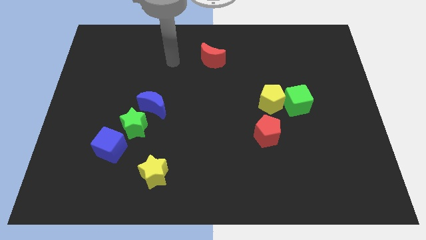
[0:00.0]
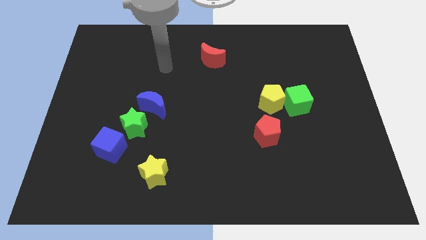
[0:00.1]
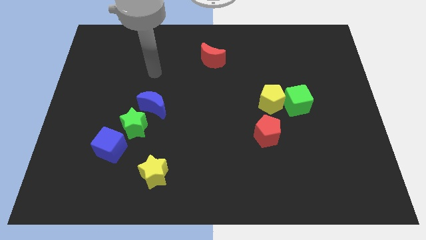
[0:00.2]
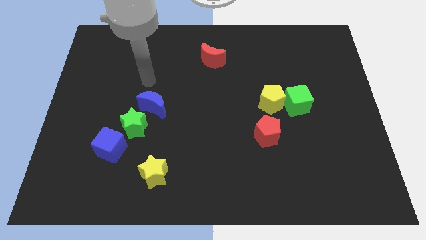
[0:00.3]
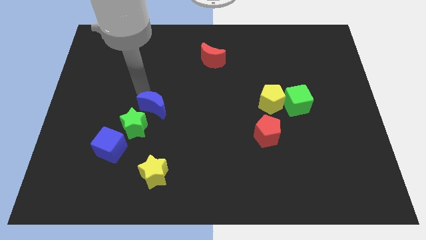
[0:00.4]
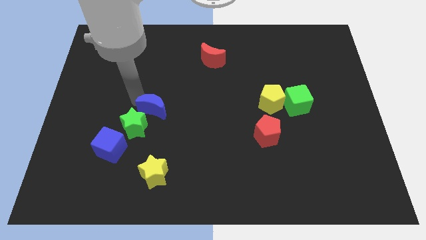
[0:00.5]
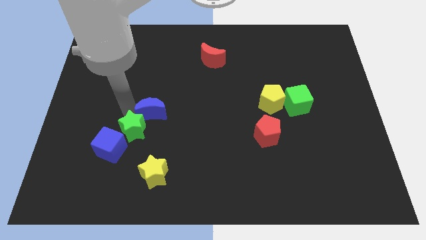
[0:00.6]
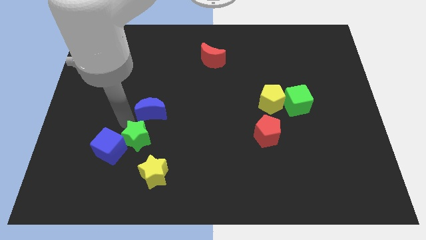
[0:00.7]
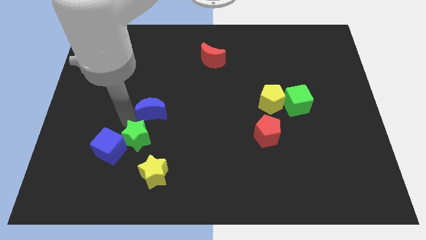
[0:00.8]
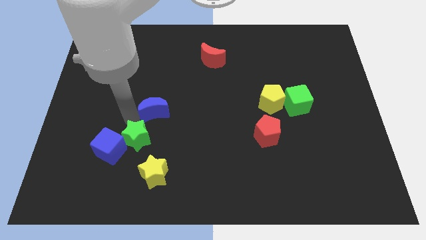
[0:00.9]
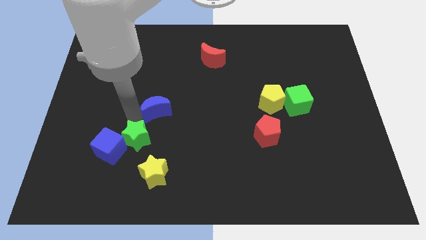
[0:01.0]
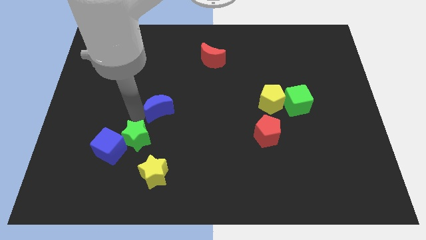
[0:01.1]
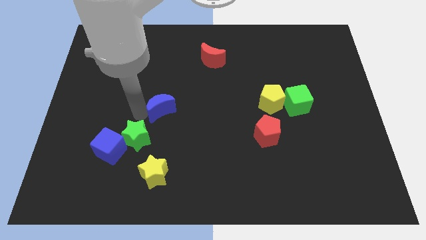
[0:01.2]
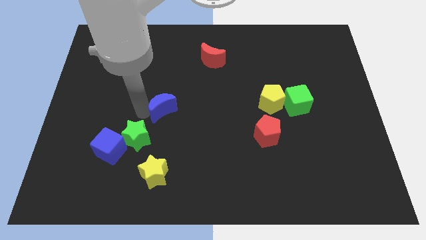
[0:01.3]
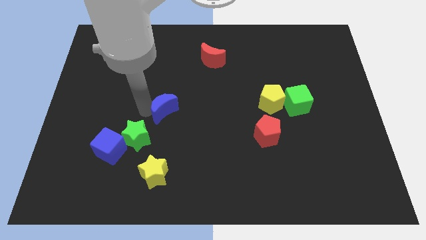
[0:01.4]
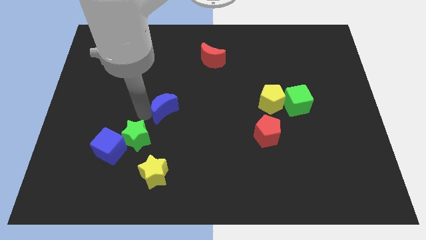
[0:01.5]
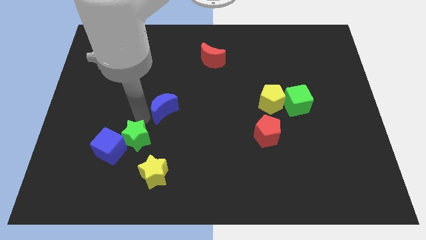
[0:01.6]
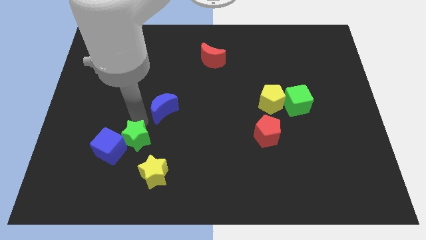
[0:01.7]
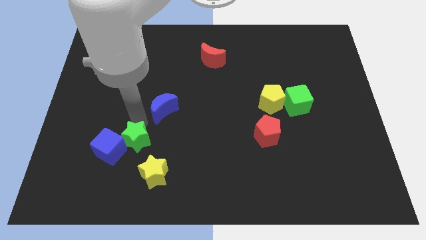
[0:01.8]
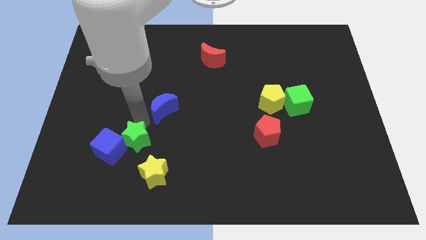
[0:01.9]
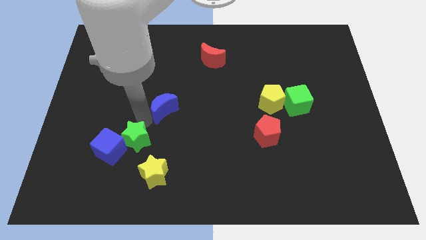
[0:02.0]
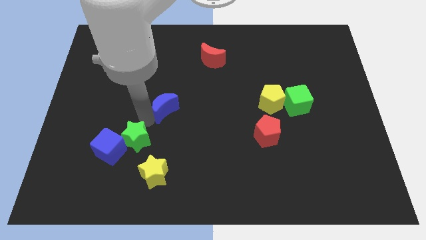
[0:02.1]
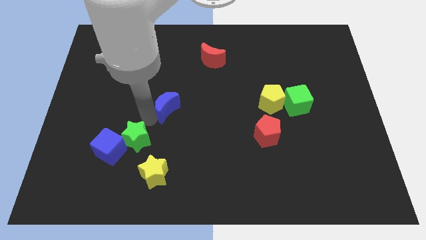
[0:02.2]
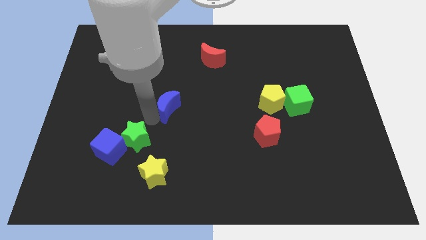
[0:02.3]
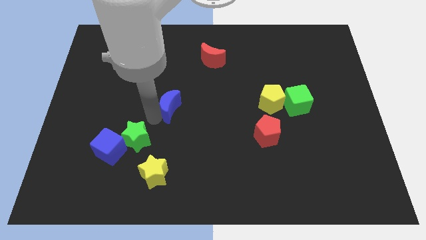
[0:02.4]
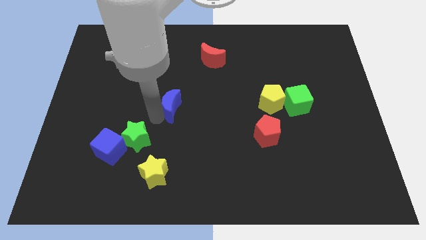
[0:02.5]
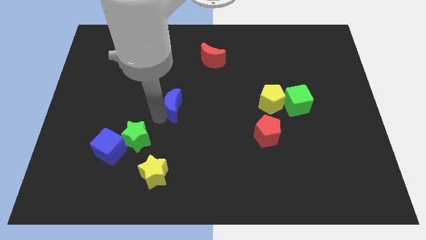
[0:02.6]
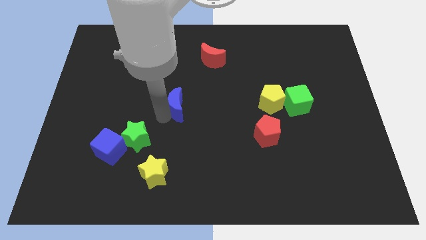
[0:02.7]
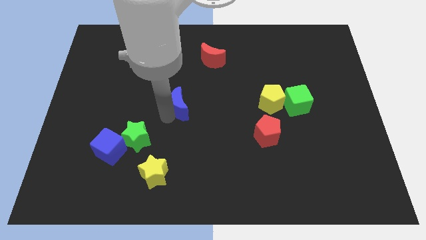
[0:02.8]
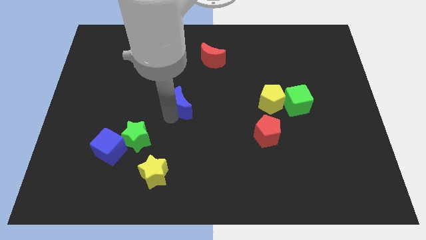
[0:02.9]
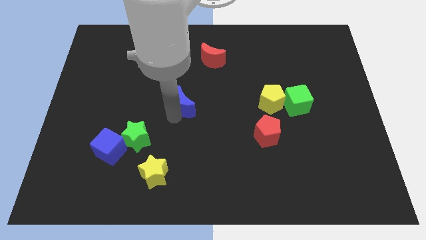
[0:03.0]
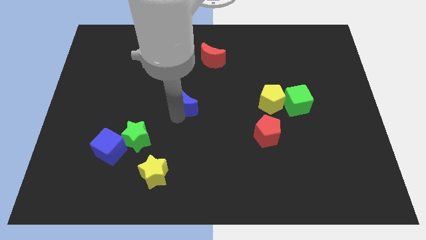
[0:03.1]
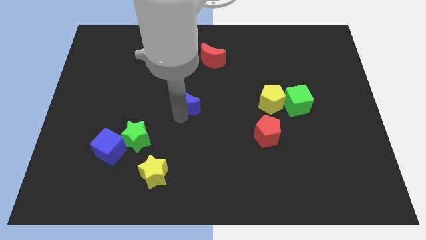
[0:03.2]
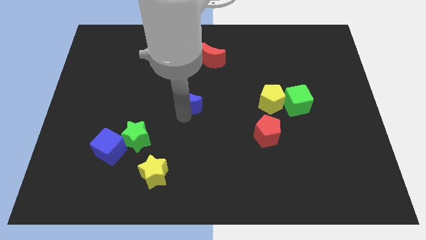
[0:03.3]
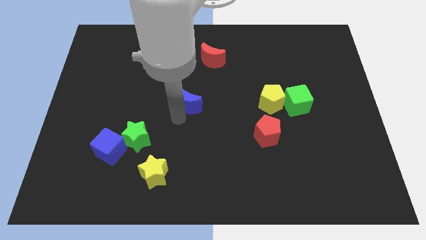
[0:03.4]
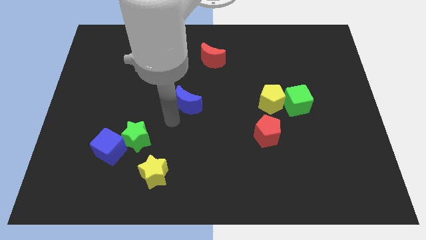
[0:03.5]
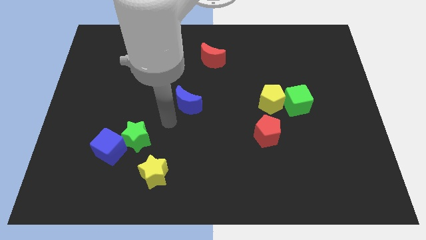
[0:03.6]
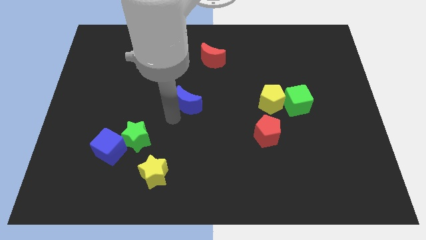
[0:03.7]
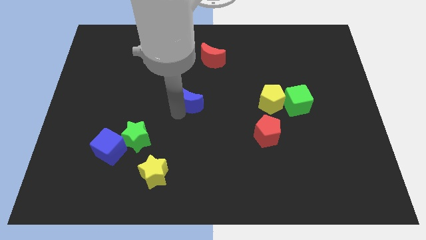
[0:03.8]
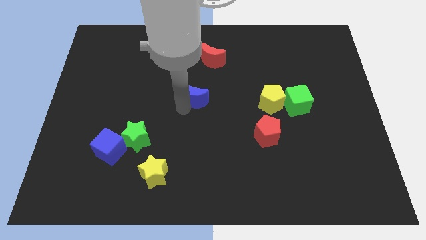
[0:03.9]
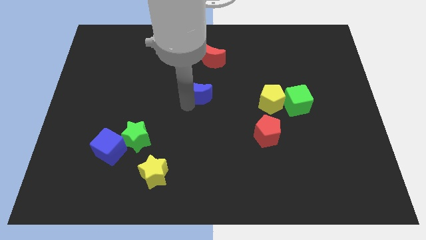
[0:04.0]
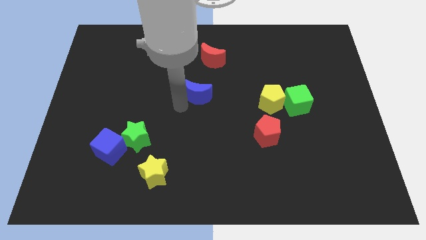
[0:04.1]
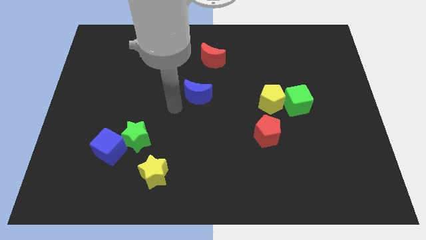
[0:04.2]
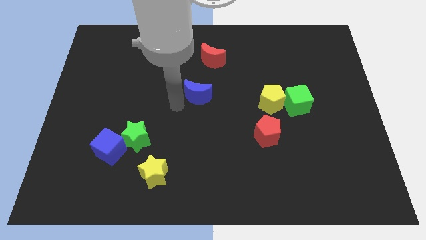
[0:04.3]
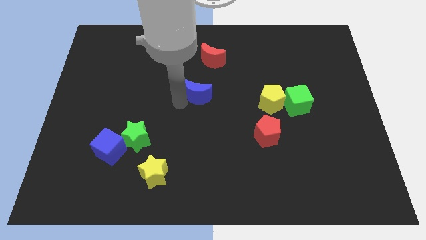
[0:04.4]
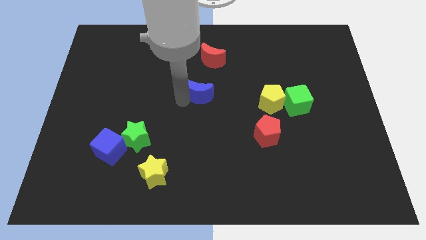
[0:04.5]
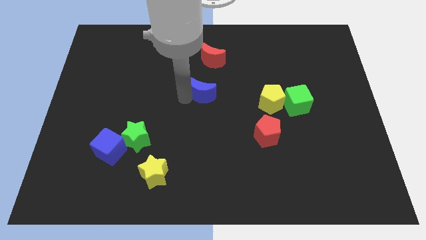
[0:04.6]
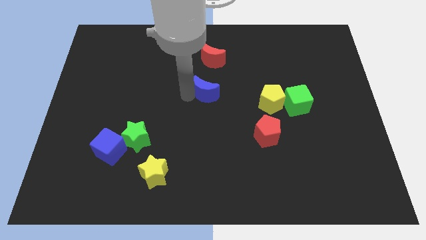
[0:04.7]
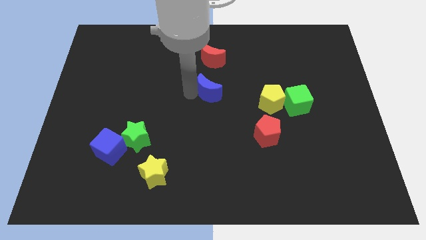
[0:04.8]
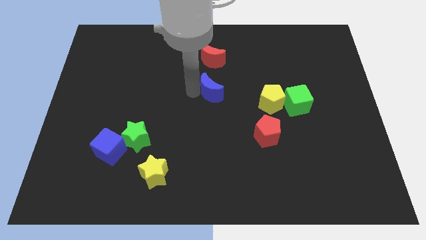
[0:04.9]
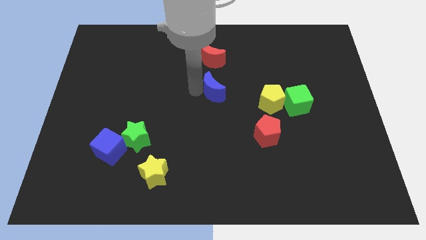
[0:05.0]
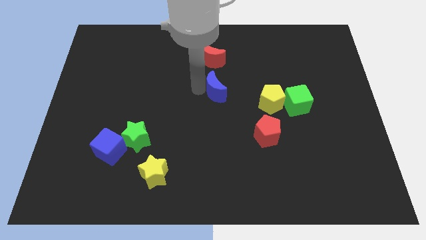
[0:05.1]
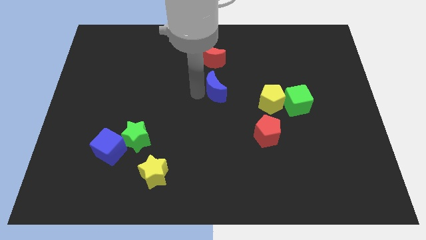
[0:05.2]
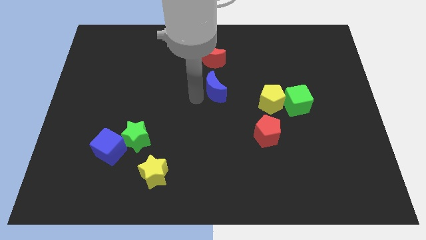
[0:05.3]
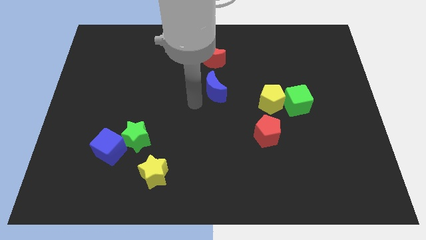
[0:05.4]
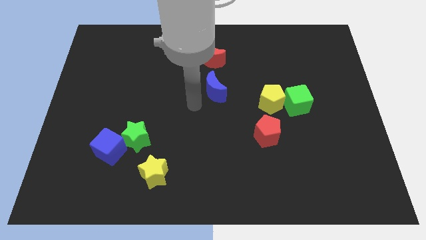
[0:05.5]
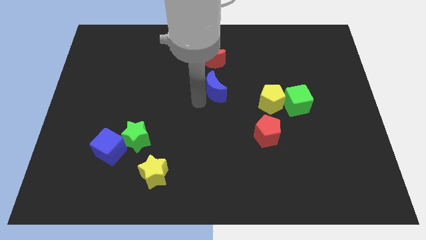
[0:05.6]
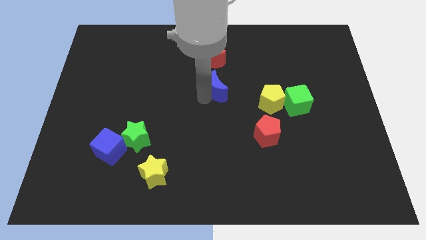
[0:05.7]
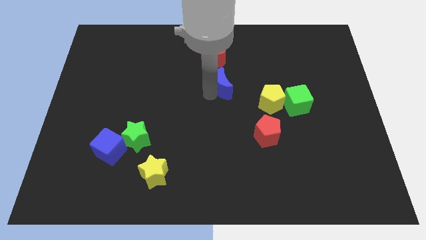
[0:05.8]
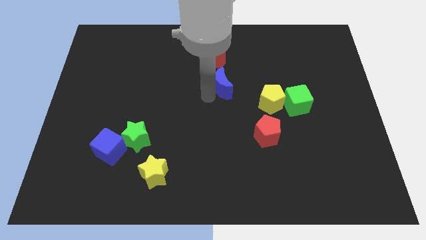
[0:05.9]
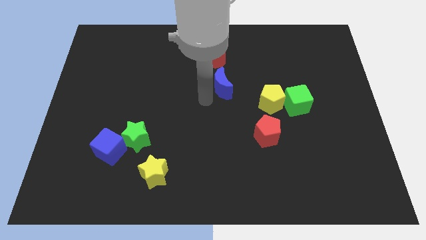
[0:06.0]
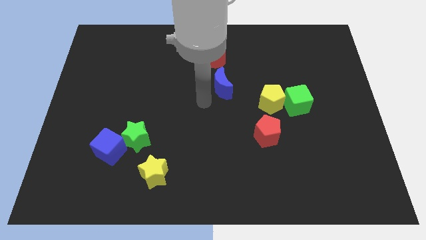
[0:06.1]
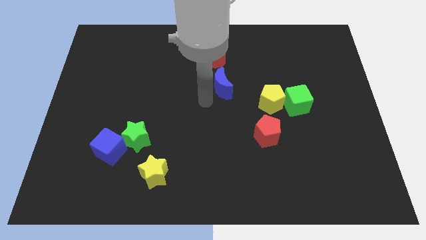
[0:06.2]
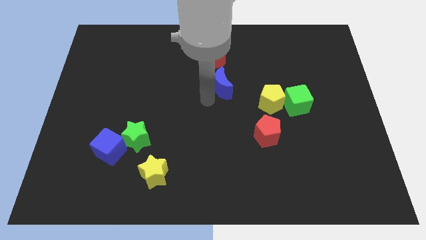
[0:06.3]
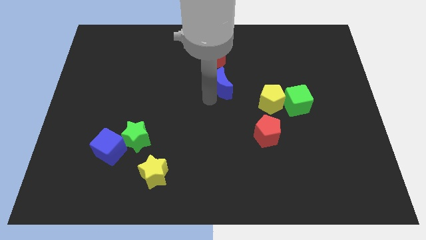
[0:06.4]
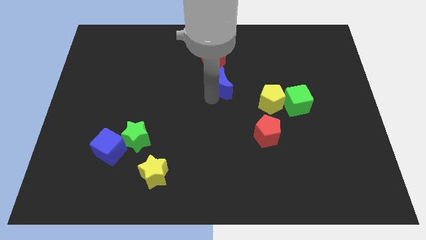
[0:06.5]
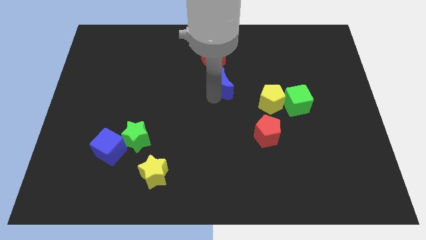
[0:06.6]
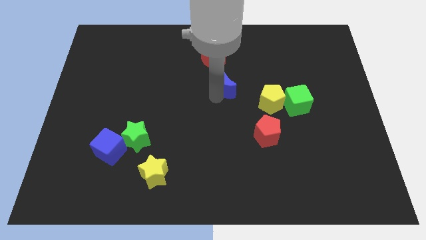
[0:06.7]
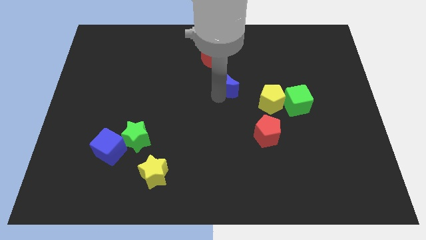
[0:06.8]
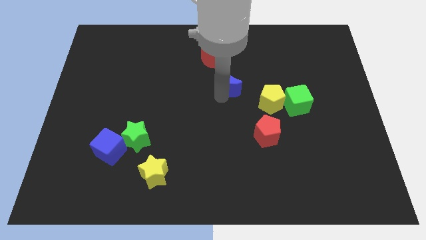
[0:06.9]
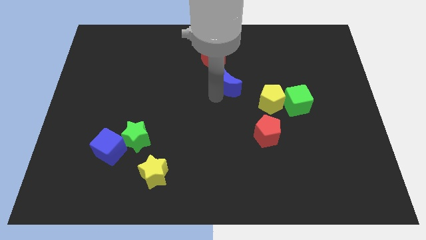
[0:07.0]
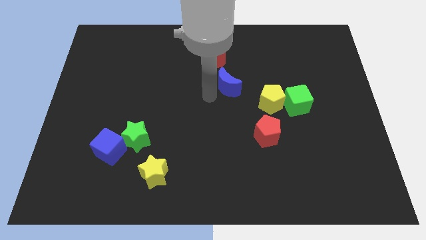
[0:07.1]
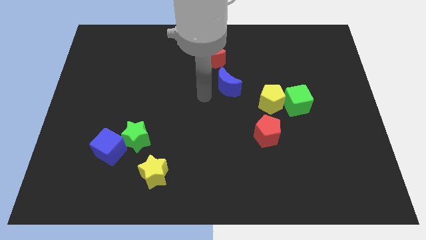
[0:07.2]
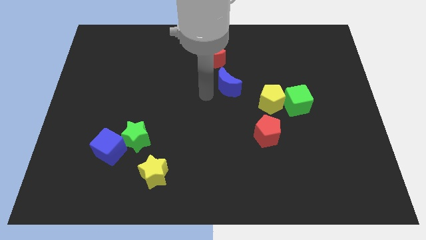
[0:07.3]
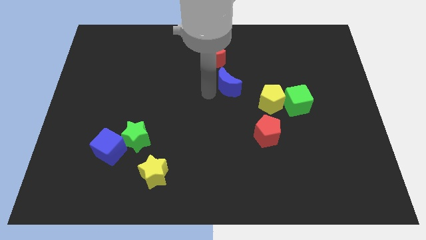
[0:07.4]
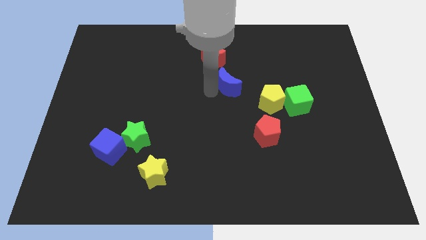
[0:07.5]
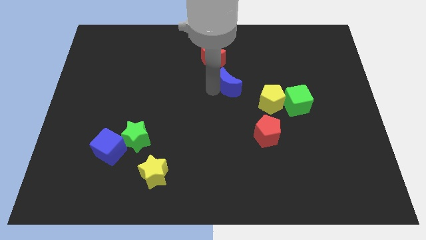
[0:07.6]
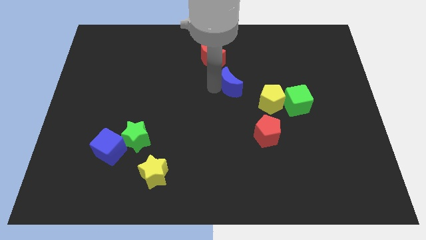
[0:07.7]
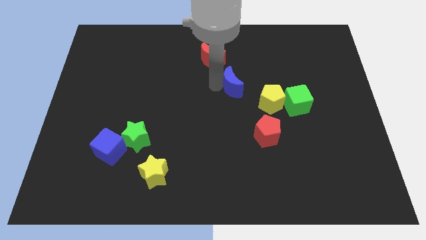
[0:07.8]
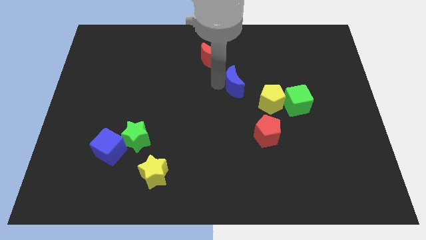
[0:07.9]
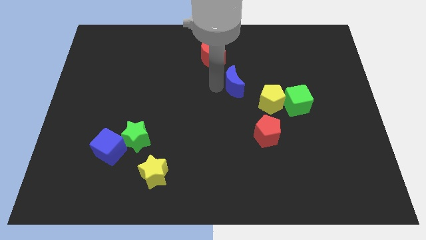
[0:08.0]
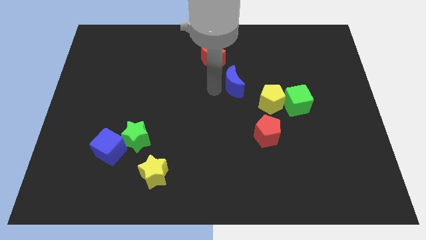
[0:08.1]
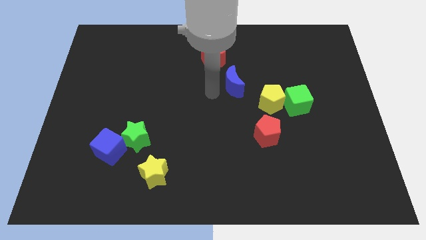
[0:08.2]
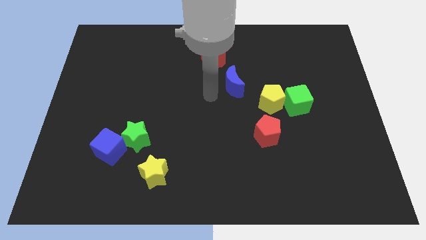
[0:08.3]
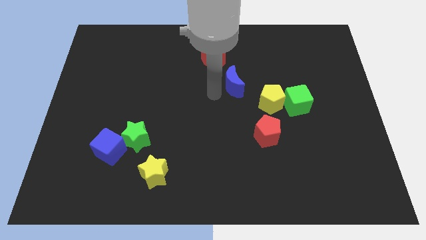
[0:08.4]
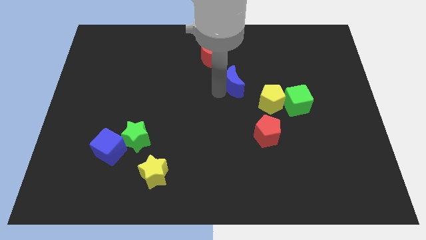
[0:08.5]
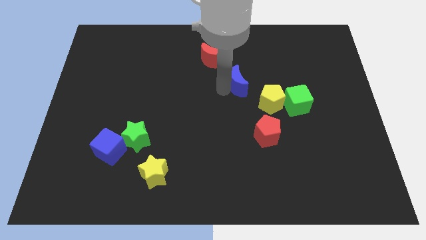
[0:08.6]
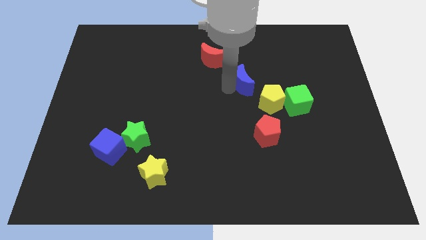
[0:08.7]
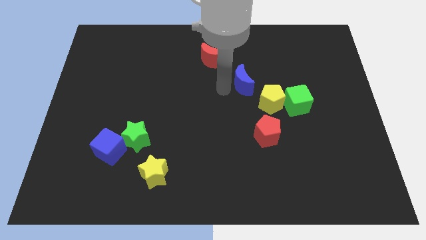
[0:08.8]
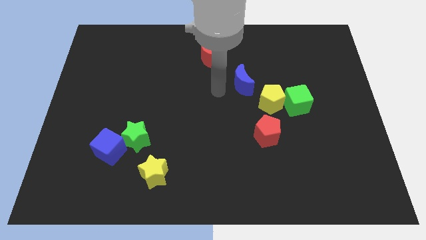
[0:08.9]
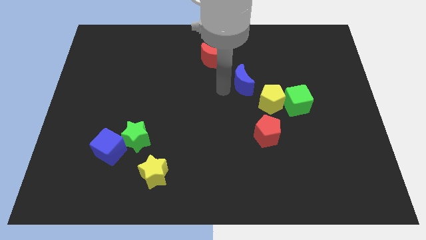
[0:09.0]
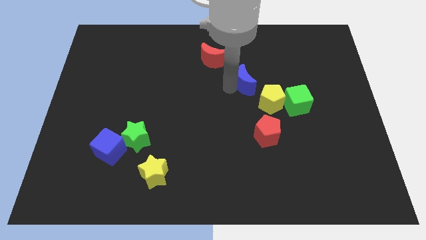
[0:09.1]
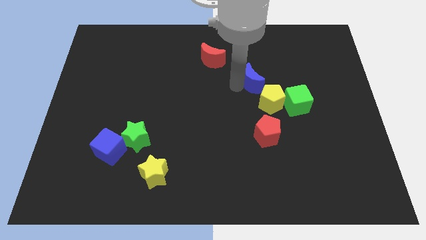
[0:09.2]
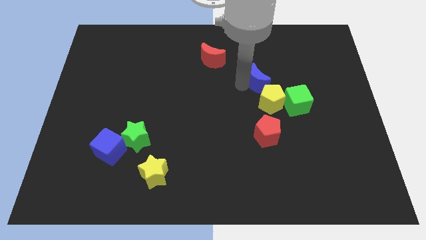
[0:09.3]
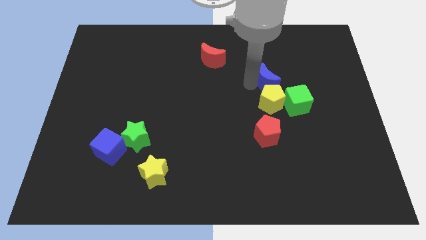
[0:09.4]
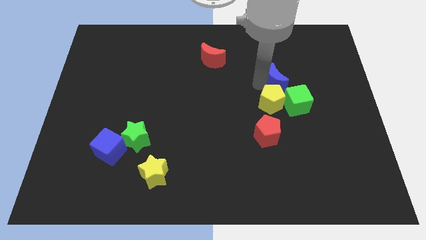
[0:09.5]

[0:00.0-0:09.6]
move the blue moon above the green cube
